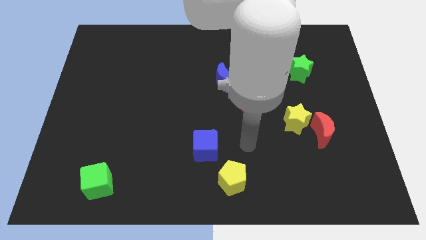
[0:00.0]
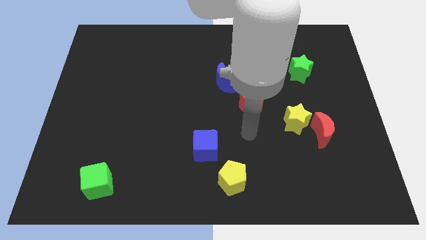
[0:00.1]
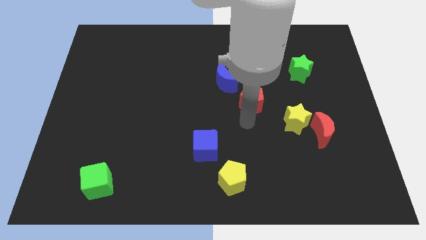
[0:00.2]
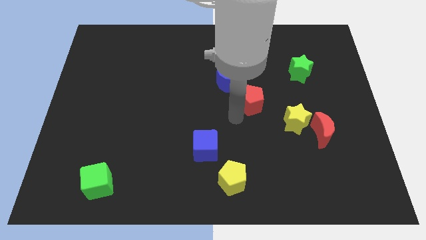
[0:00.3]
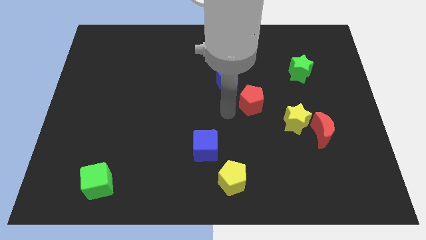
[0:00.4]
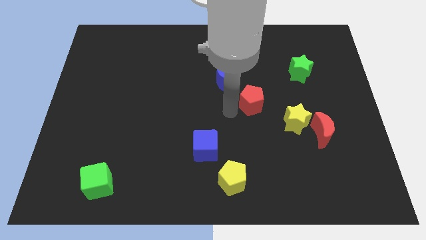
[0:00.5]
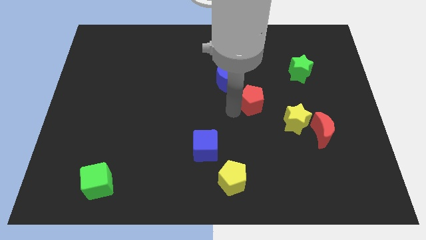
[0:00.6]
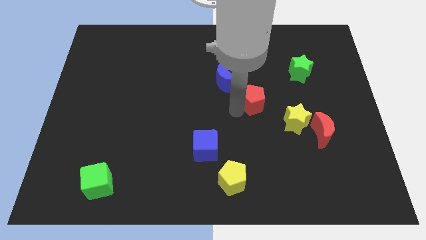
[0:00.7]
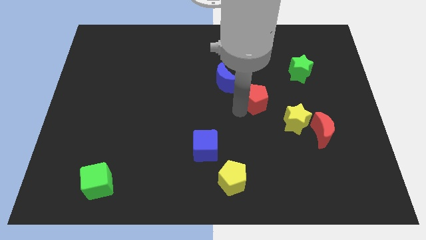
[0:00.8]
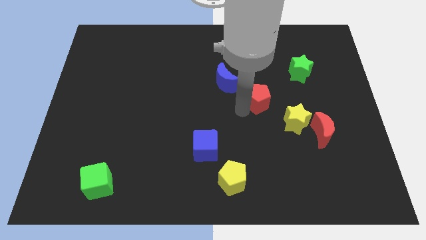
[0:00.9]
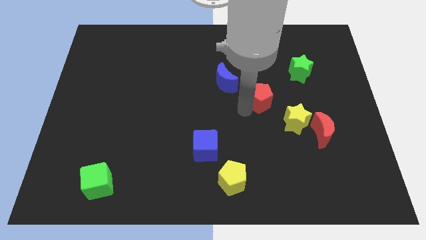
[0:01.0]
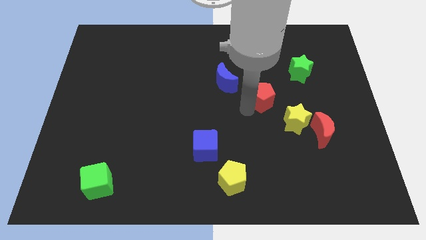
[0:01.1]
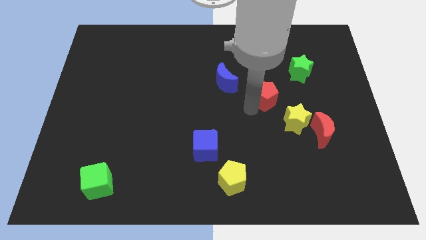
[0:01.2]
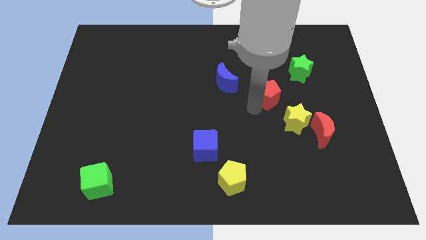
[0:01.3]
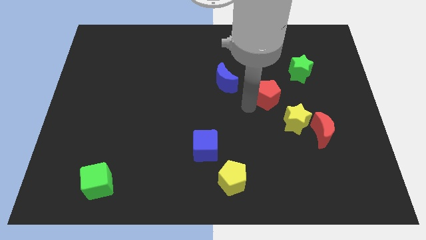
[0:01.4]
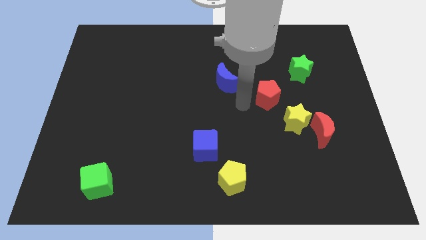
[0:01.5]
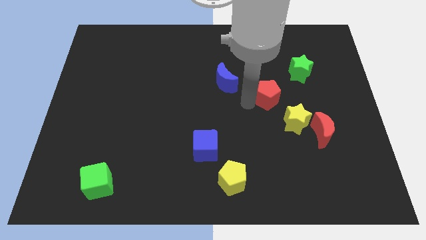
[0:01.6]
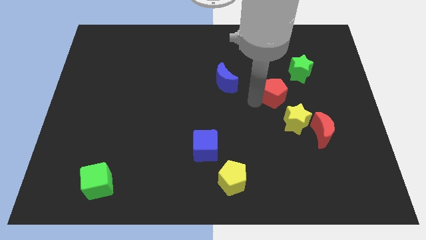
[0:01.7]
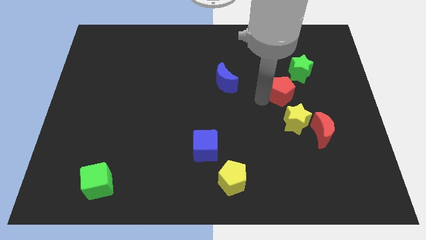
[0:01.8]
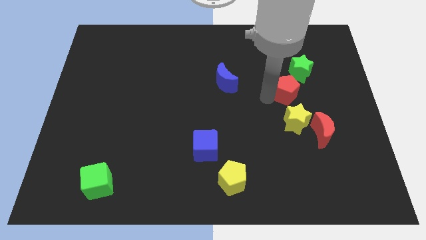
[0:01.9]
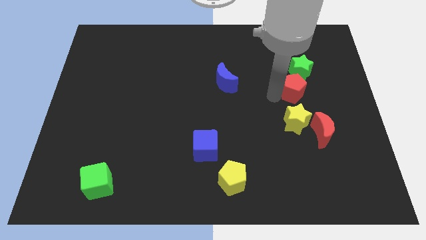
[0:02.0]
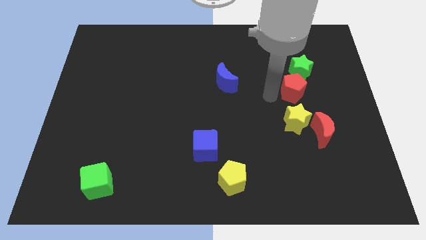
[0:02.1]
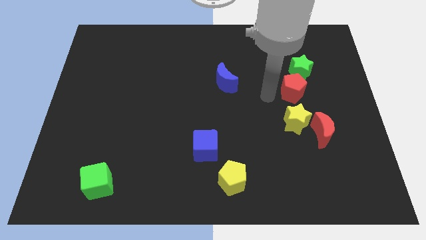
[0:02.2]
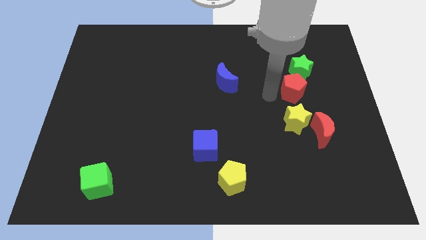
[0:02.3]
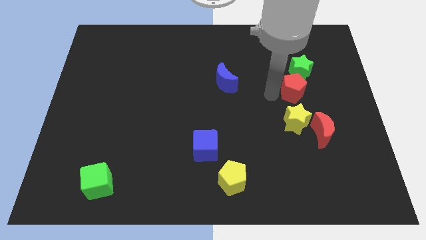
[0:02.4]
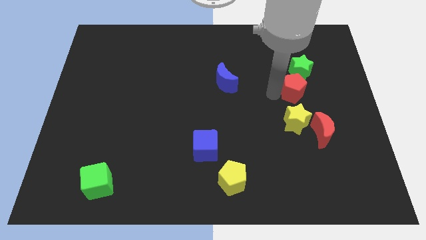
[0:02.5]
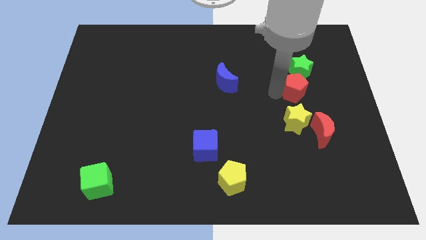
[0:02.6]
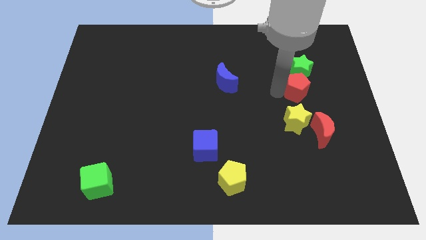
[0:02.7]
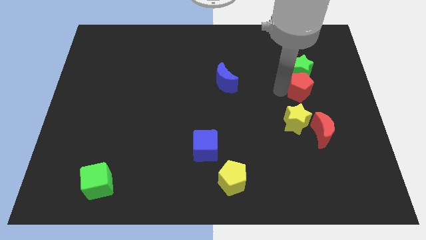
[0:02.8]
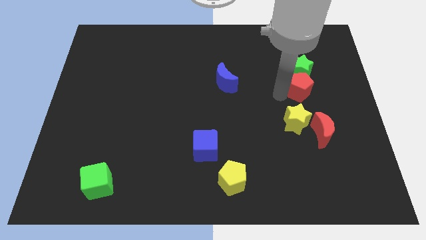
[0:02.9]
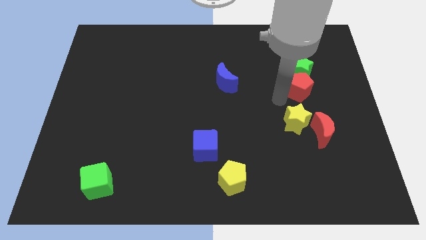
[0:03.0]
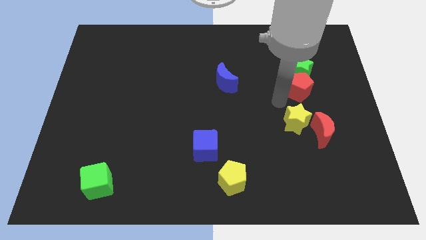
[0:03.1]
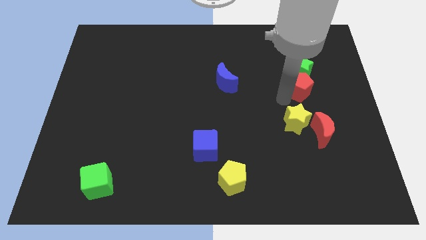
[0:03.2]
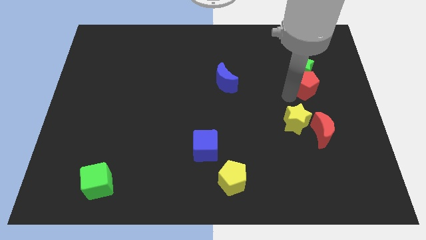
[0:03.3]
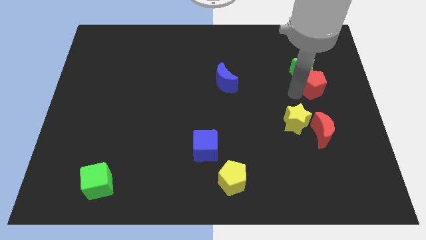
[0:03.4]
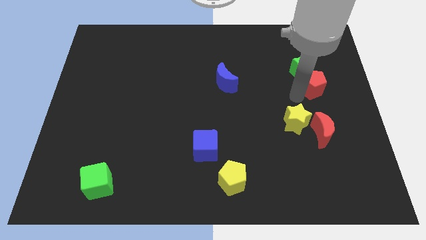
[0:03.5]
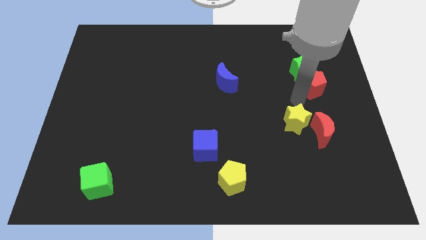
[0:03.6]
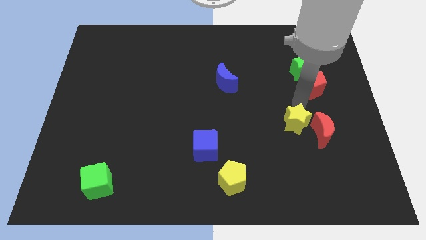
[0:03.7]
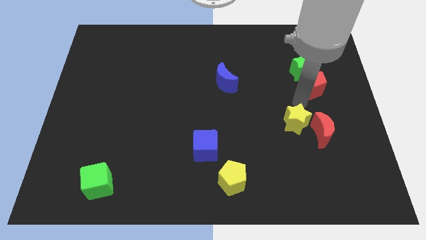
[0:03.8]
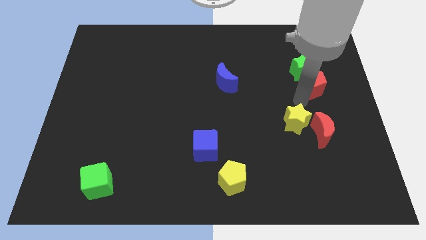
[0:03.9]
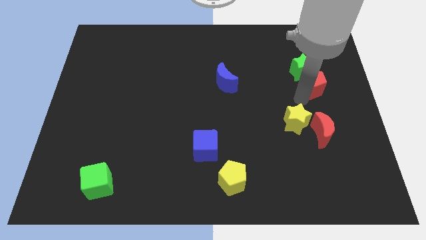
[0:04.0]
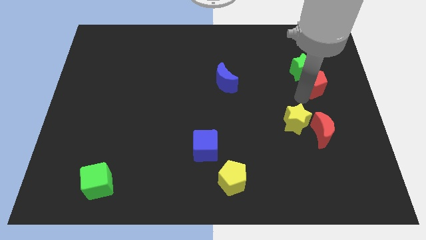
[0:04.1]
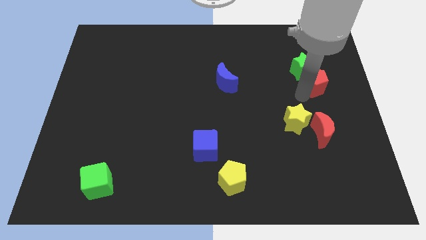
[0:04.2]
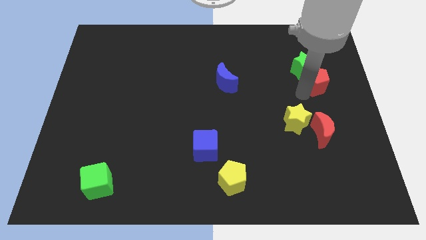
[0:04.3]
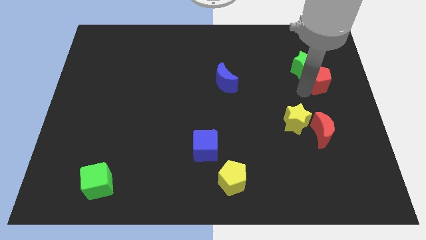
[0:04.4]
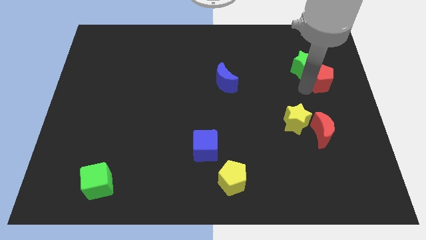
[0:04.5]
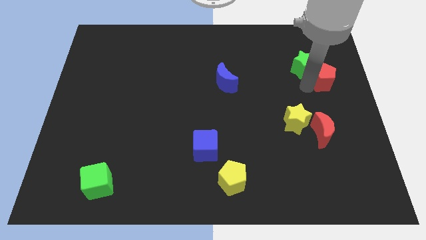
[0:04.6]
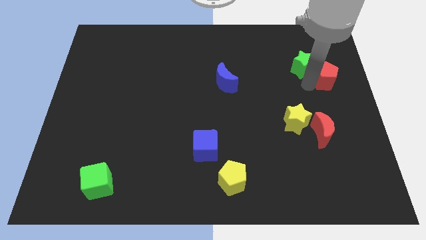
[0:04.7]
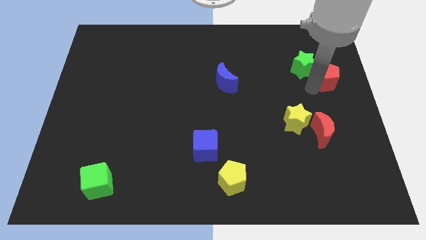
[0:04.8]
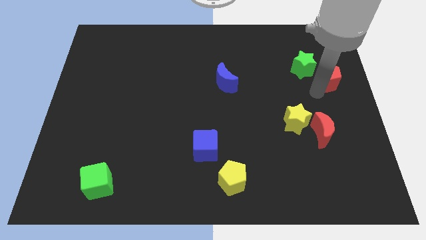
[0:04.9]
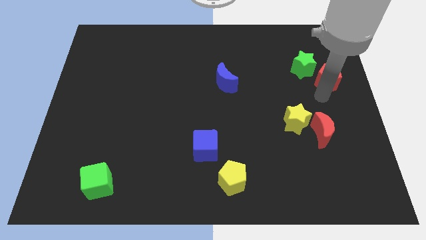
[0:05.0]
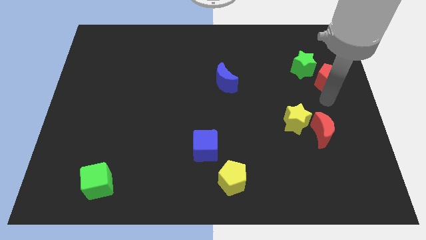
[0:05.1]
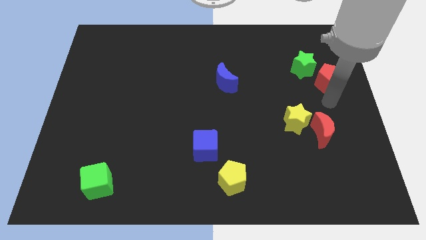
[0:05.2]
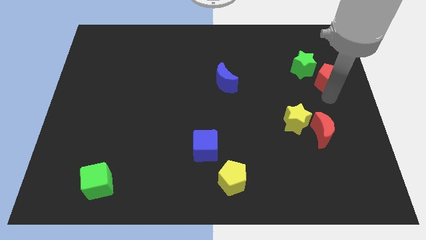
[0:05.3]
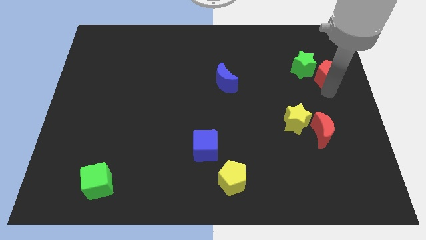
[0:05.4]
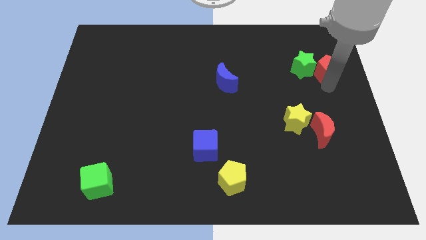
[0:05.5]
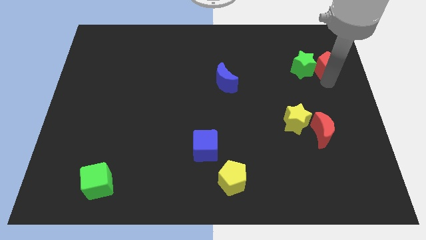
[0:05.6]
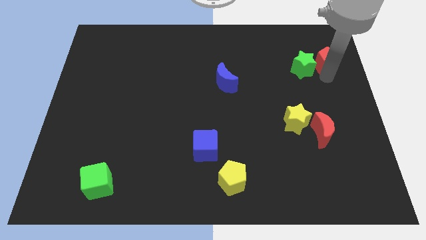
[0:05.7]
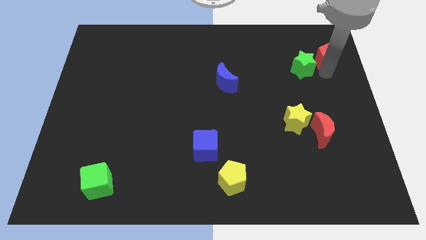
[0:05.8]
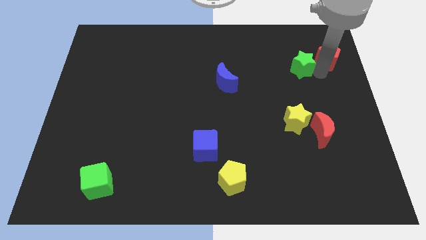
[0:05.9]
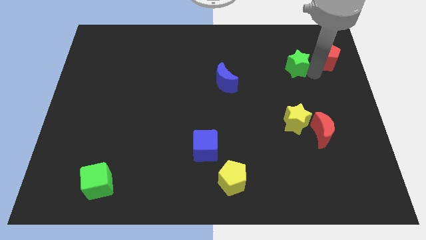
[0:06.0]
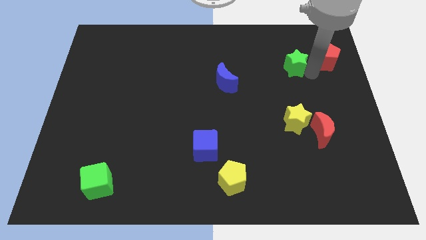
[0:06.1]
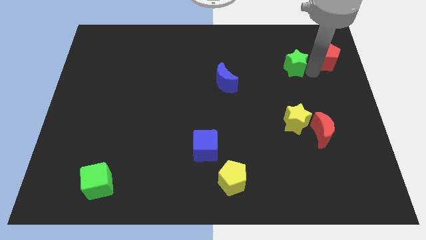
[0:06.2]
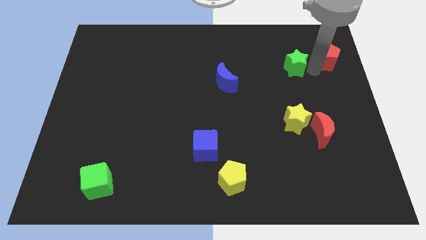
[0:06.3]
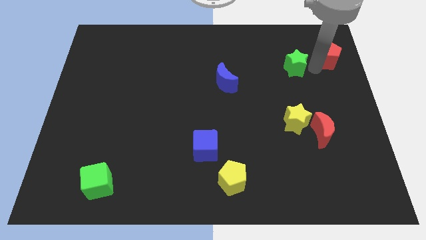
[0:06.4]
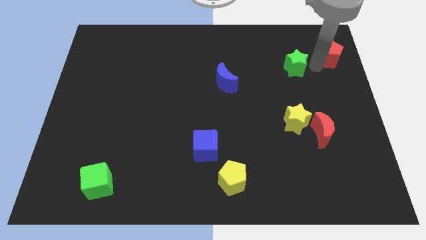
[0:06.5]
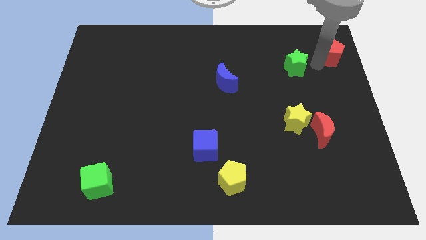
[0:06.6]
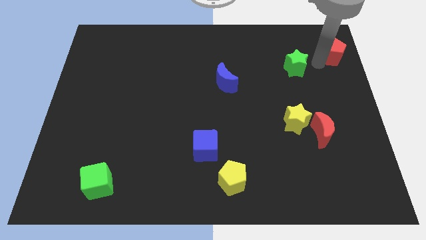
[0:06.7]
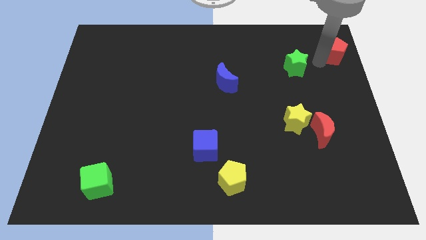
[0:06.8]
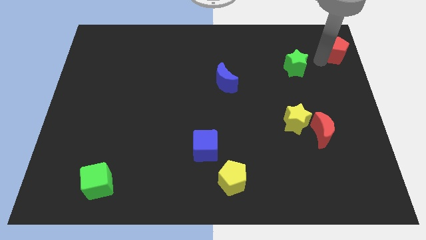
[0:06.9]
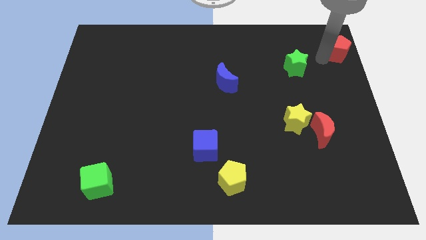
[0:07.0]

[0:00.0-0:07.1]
slide the red pentagon to the top right corner
